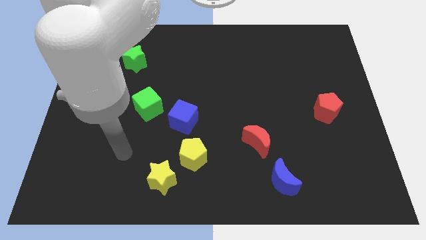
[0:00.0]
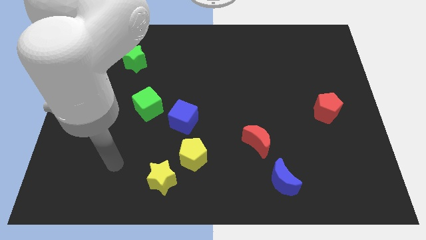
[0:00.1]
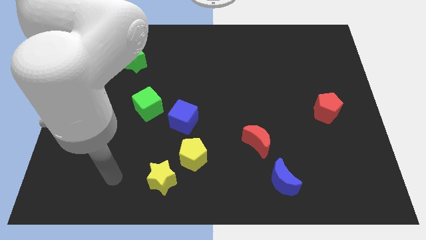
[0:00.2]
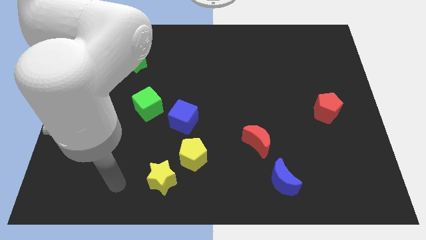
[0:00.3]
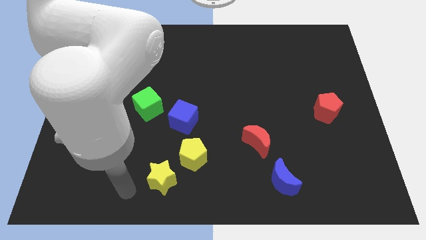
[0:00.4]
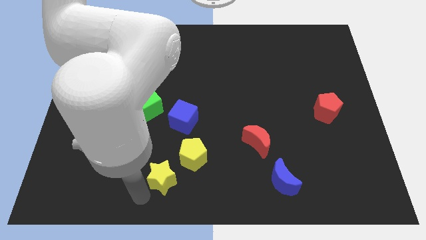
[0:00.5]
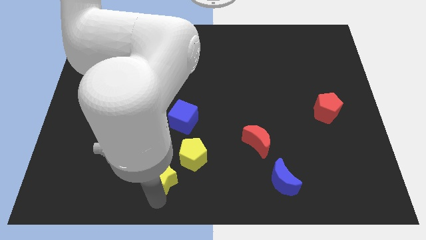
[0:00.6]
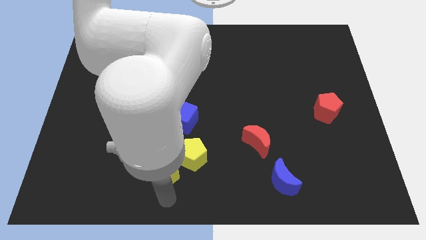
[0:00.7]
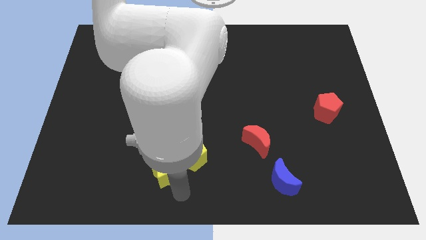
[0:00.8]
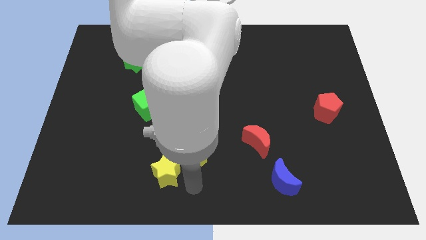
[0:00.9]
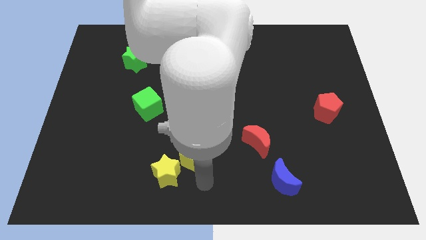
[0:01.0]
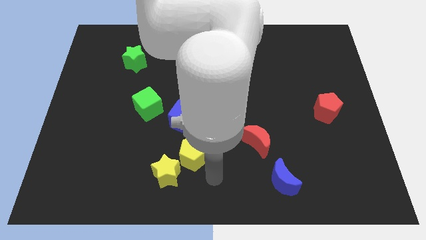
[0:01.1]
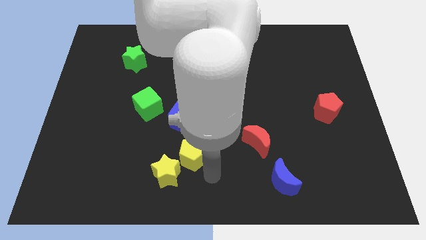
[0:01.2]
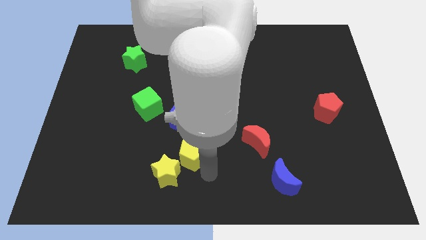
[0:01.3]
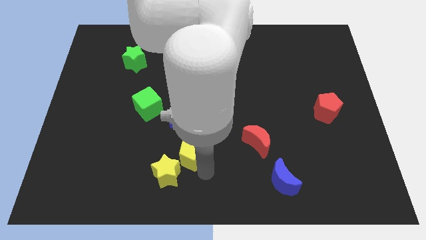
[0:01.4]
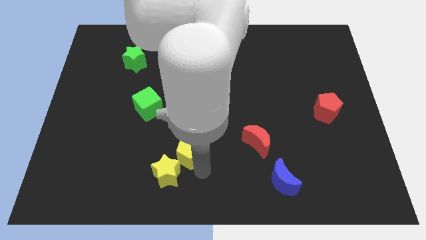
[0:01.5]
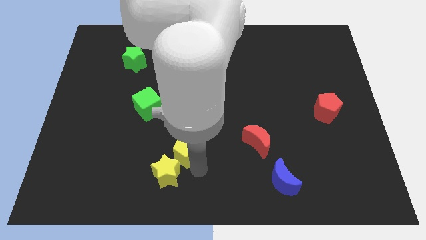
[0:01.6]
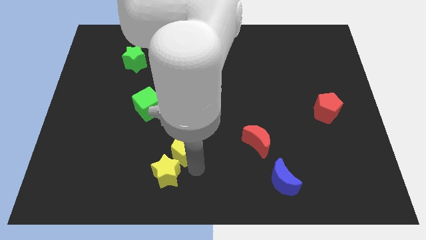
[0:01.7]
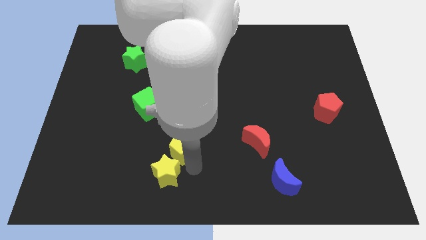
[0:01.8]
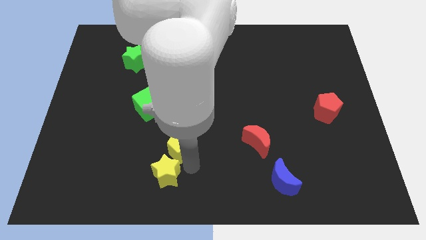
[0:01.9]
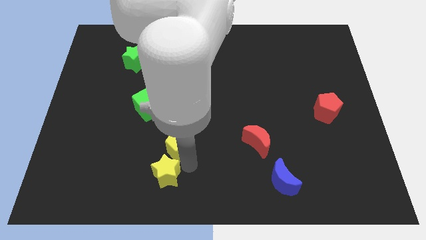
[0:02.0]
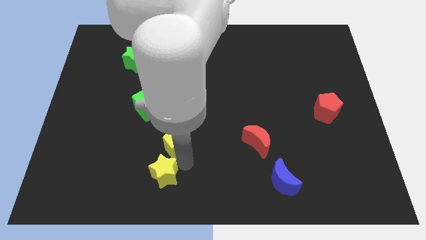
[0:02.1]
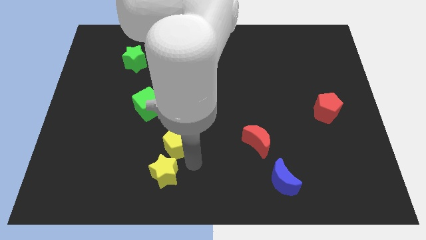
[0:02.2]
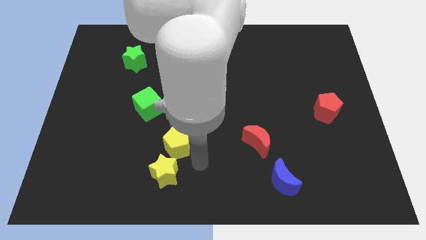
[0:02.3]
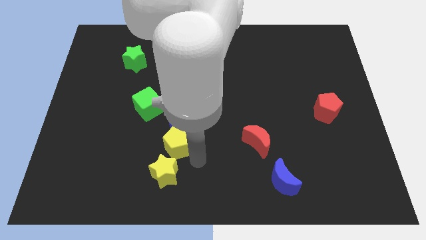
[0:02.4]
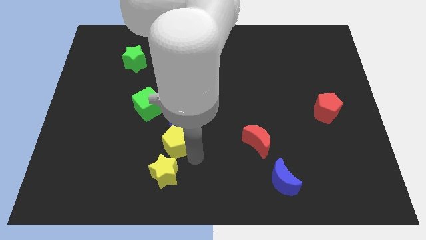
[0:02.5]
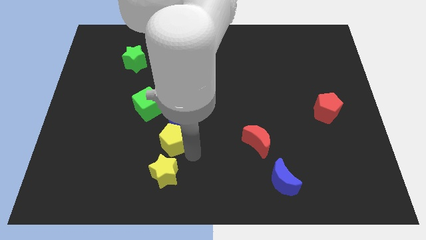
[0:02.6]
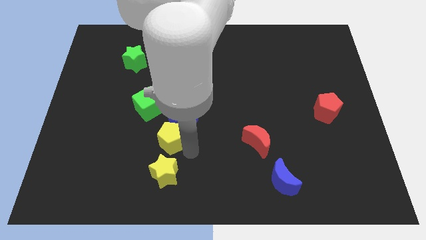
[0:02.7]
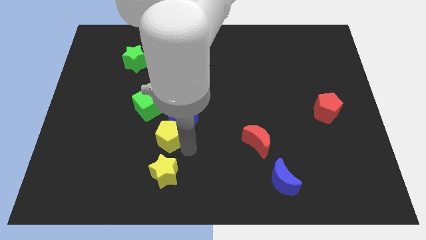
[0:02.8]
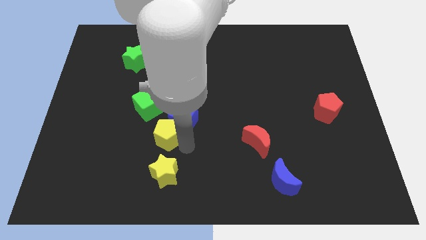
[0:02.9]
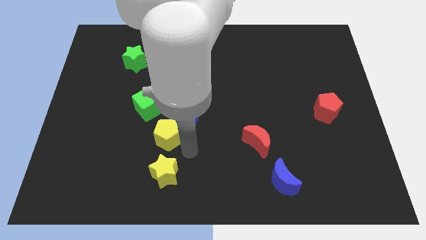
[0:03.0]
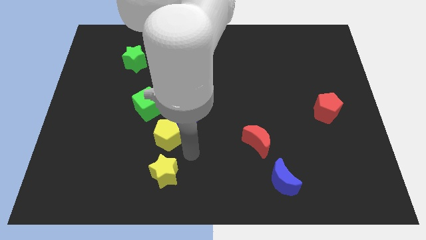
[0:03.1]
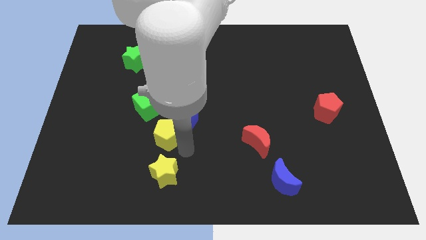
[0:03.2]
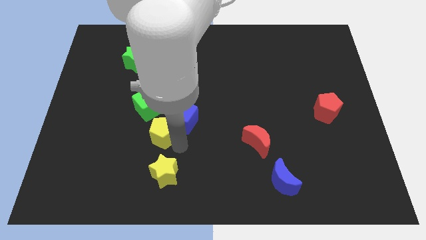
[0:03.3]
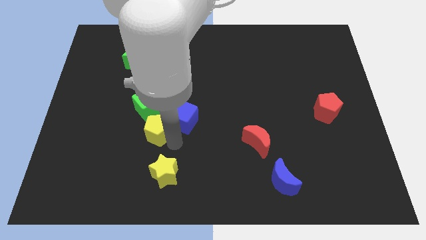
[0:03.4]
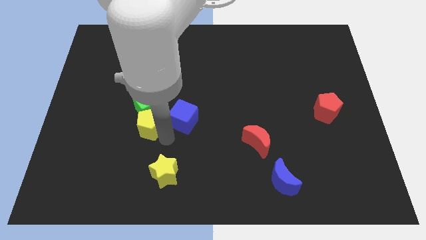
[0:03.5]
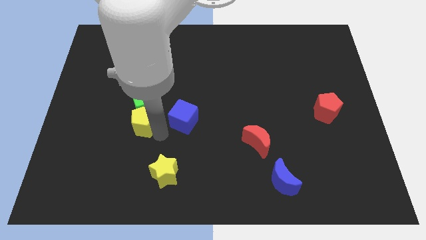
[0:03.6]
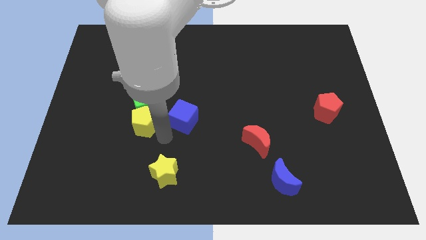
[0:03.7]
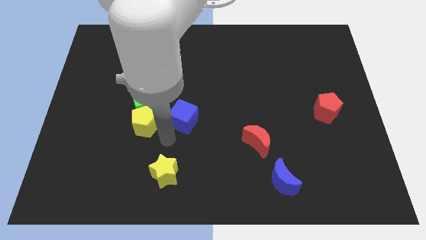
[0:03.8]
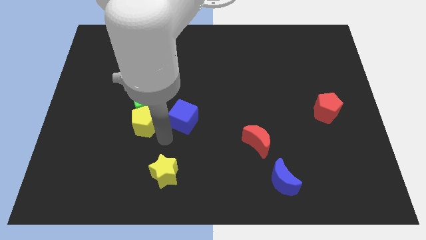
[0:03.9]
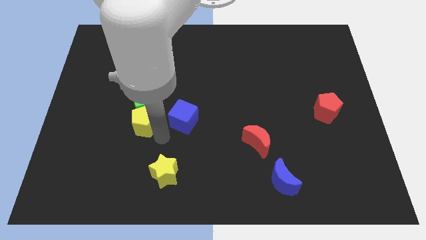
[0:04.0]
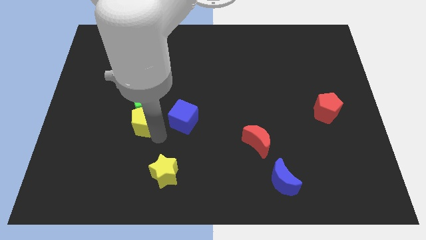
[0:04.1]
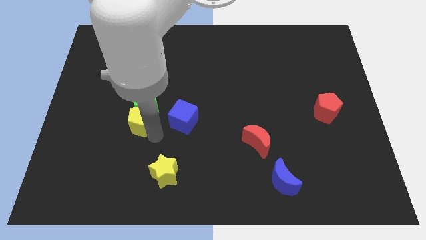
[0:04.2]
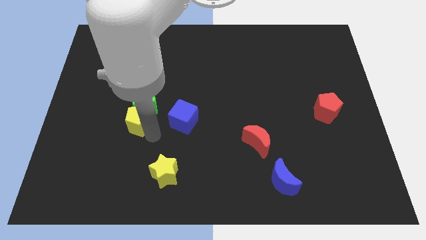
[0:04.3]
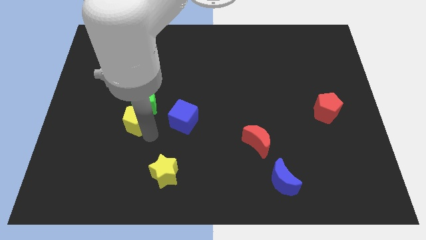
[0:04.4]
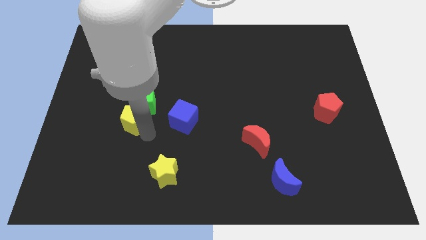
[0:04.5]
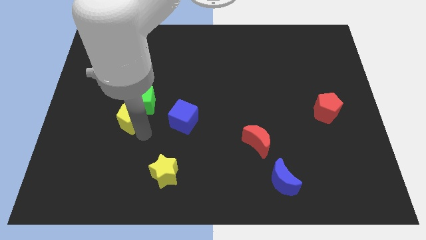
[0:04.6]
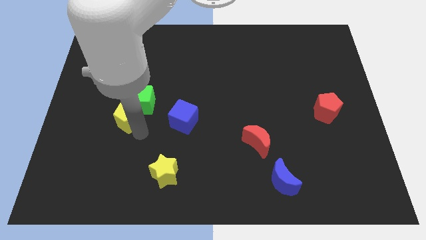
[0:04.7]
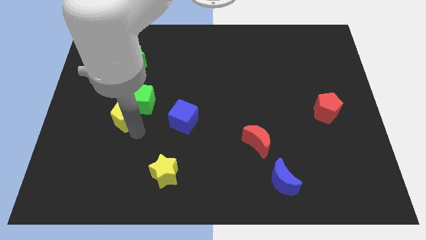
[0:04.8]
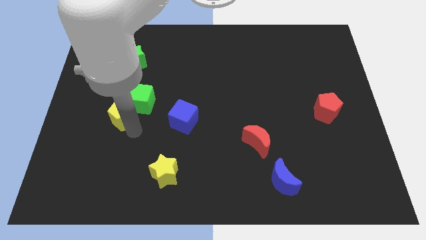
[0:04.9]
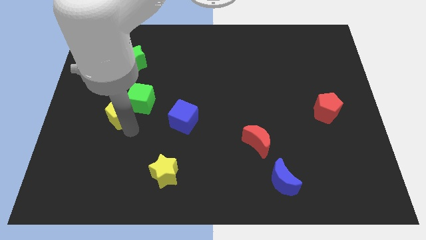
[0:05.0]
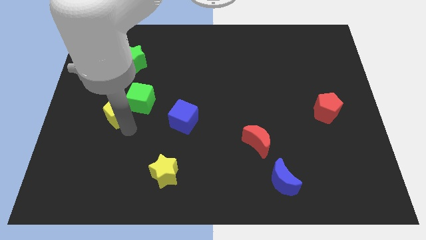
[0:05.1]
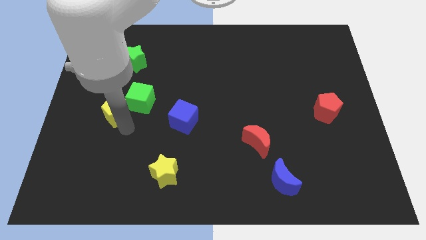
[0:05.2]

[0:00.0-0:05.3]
push the yellow pentagon up and to the left

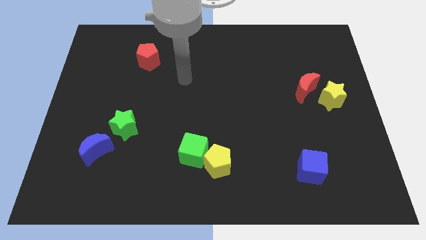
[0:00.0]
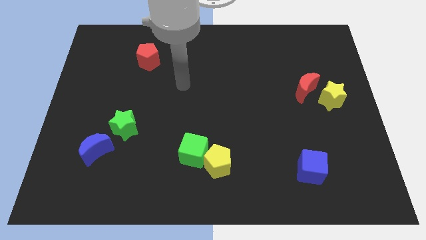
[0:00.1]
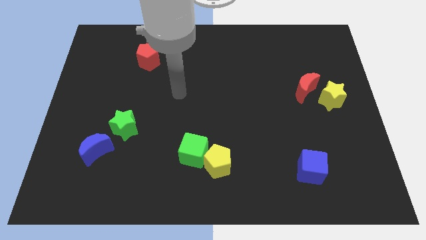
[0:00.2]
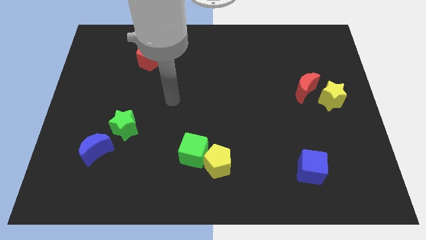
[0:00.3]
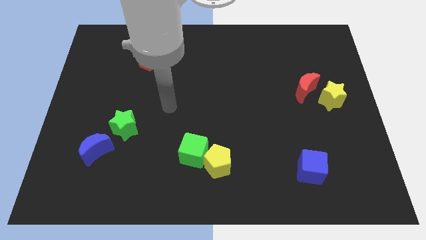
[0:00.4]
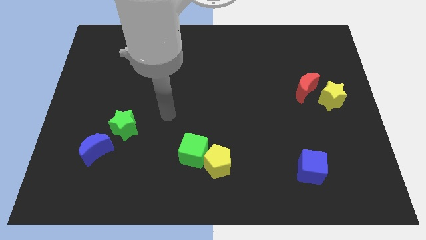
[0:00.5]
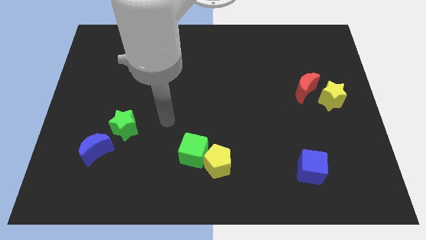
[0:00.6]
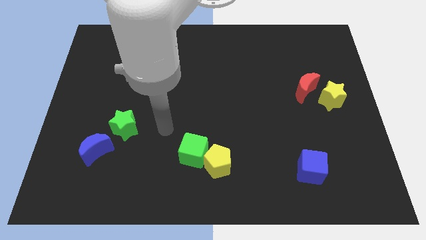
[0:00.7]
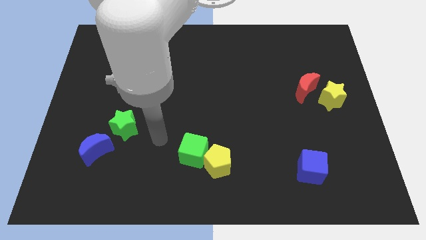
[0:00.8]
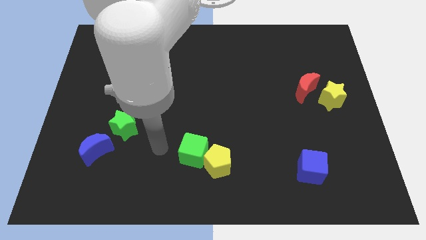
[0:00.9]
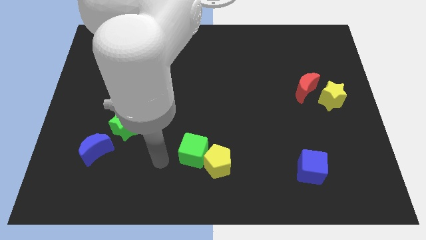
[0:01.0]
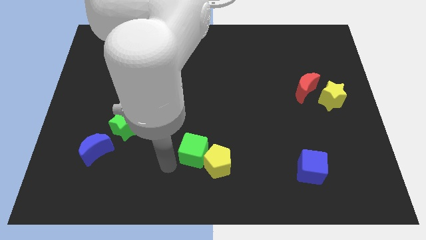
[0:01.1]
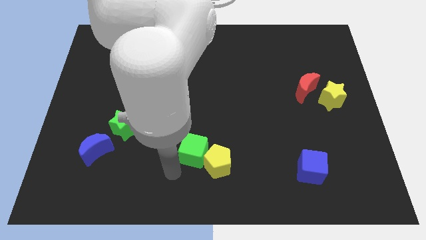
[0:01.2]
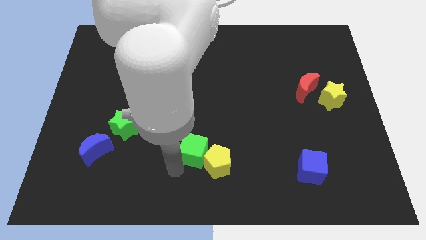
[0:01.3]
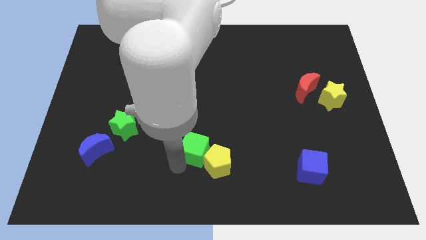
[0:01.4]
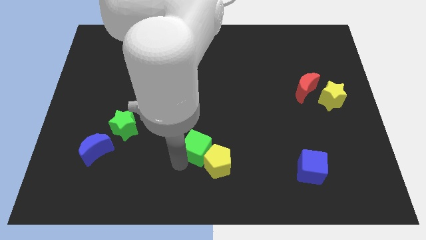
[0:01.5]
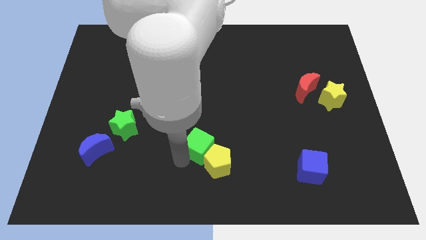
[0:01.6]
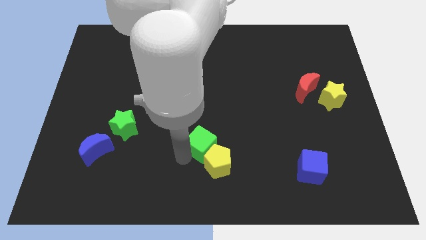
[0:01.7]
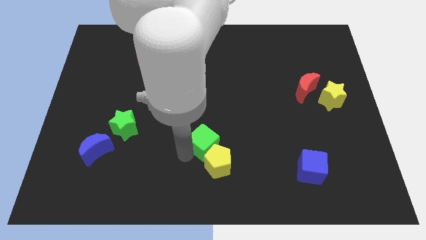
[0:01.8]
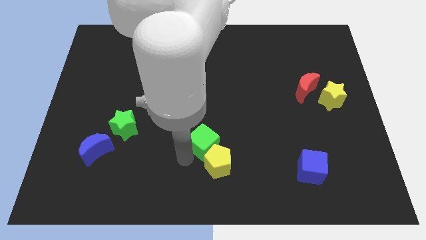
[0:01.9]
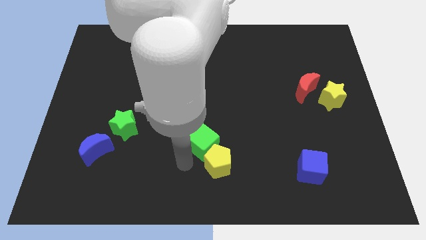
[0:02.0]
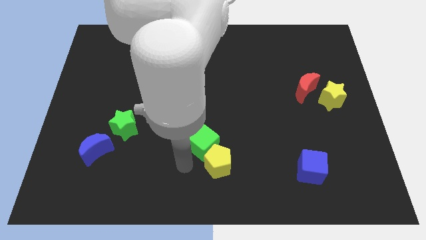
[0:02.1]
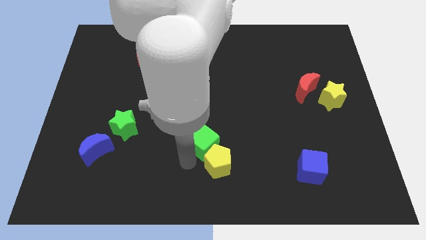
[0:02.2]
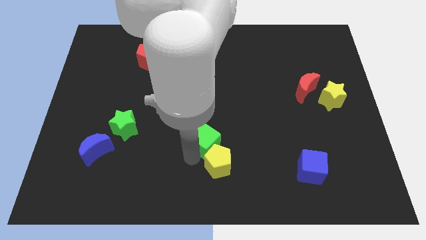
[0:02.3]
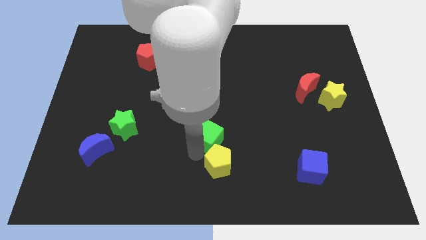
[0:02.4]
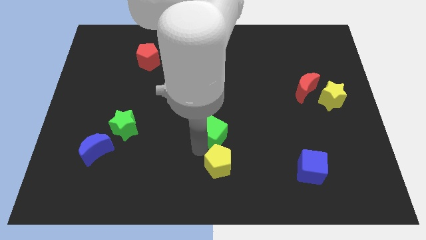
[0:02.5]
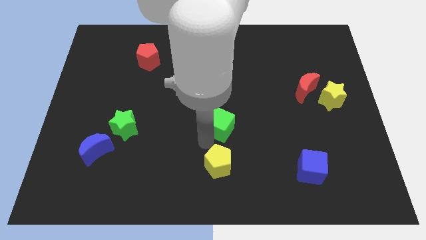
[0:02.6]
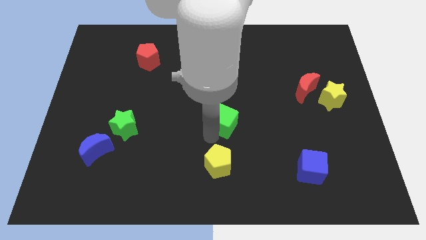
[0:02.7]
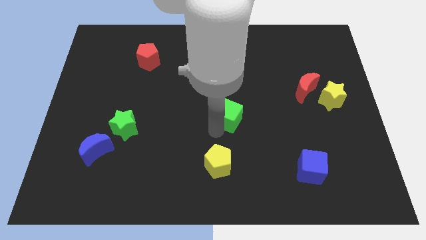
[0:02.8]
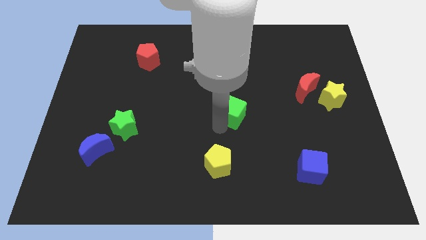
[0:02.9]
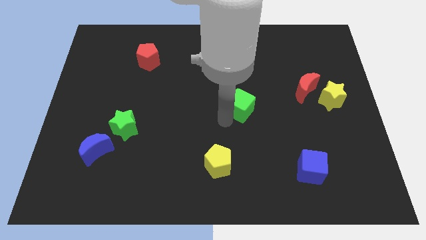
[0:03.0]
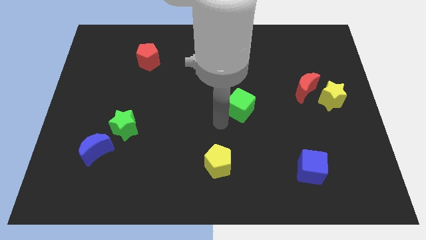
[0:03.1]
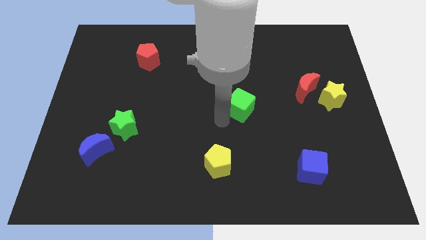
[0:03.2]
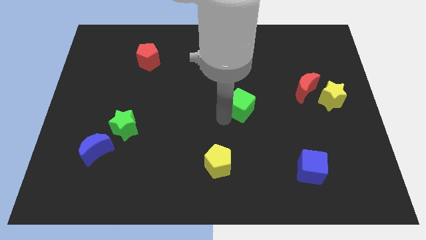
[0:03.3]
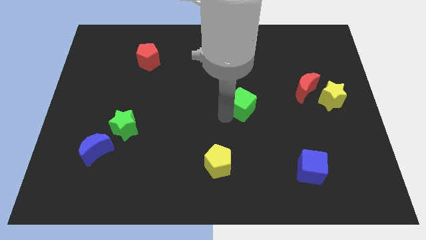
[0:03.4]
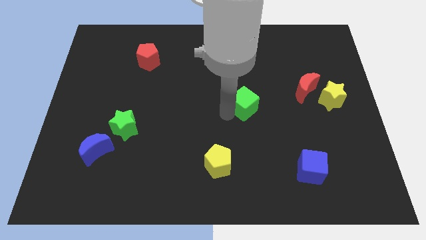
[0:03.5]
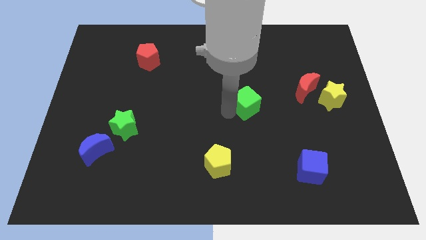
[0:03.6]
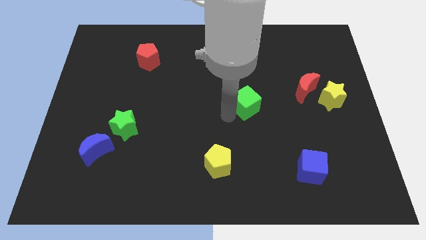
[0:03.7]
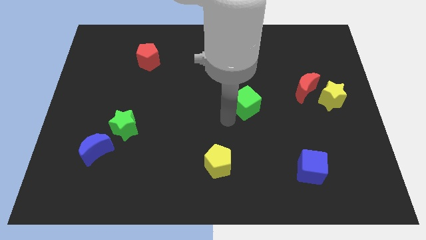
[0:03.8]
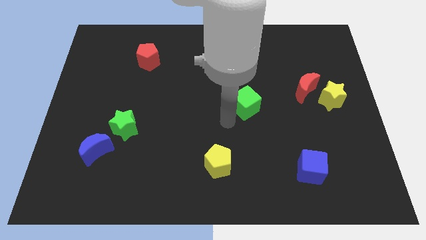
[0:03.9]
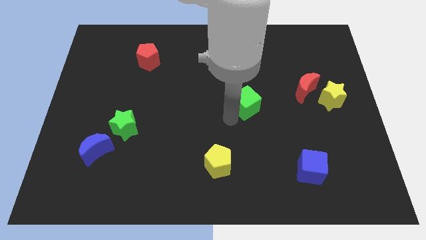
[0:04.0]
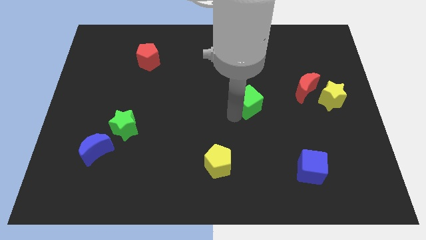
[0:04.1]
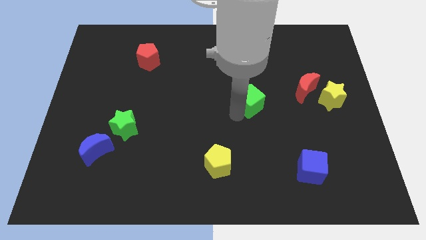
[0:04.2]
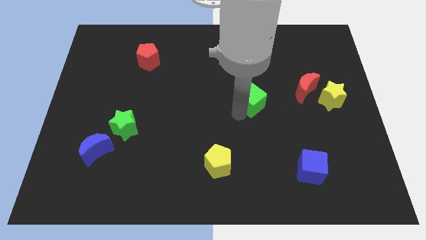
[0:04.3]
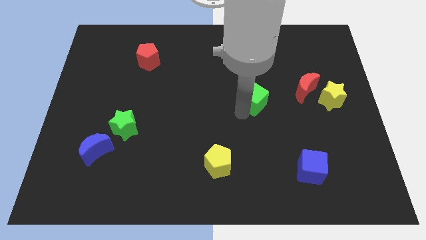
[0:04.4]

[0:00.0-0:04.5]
slide the green cube diagonally upwards and right
